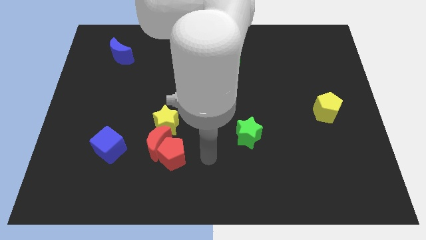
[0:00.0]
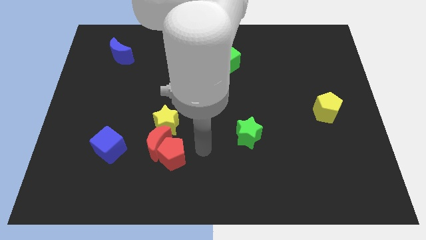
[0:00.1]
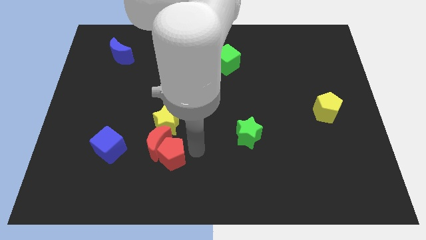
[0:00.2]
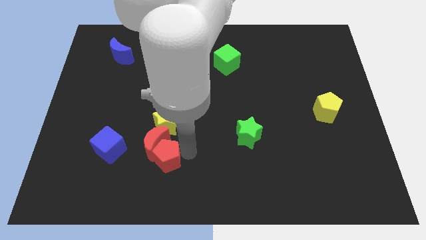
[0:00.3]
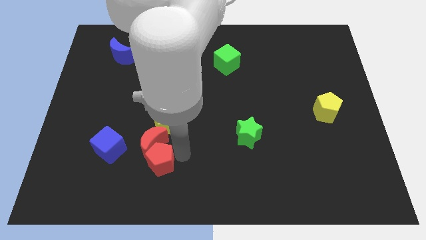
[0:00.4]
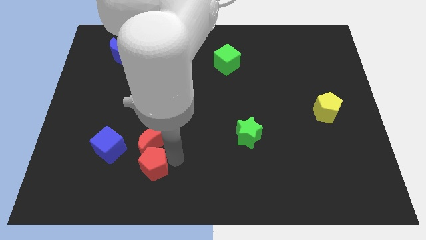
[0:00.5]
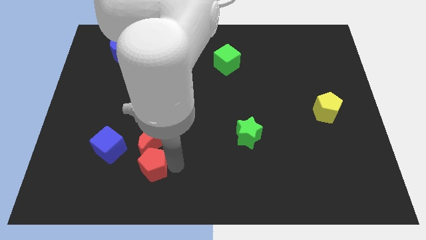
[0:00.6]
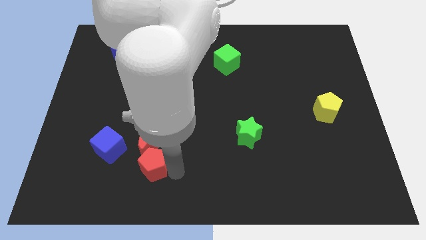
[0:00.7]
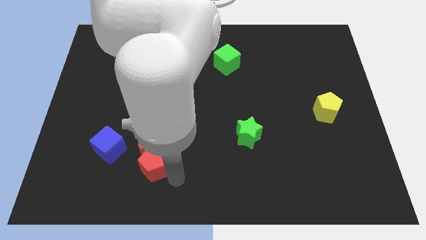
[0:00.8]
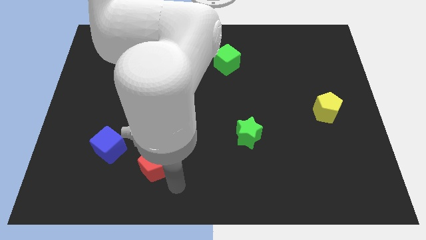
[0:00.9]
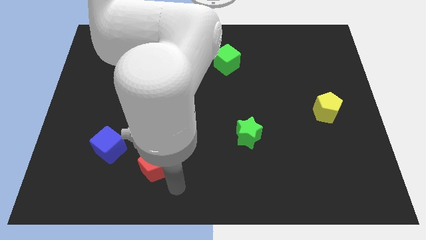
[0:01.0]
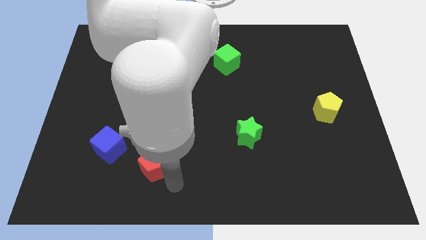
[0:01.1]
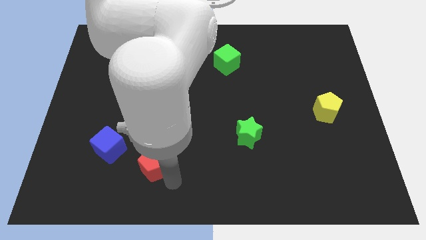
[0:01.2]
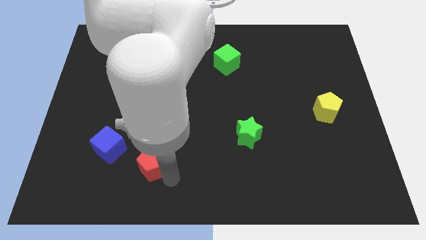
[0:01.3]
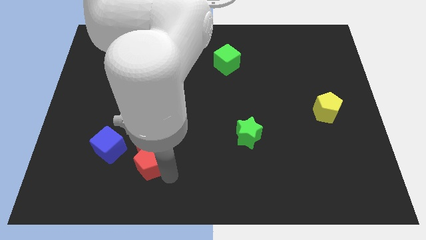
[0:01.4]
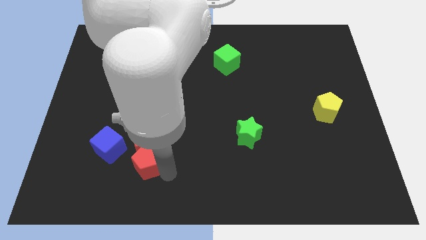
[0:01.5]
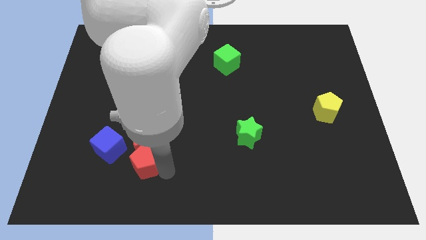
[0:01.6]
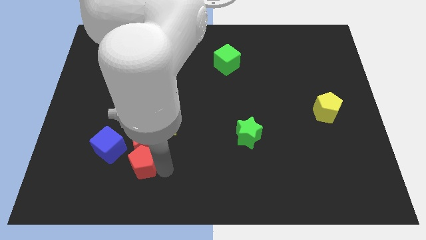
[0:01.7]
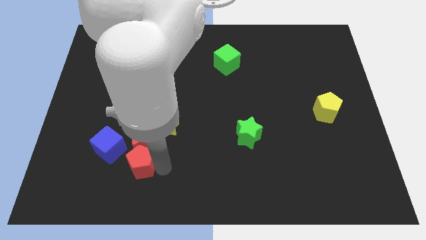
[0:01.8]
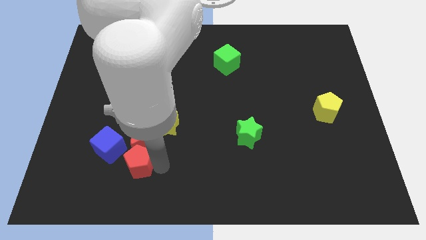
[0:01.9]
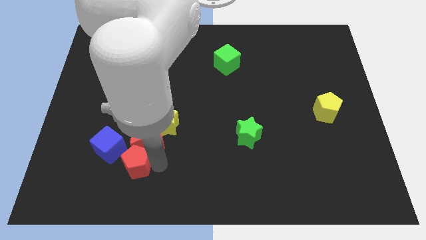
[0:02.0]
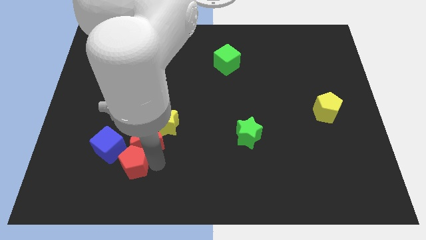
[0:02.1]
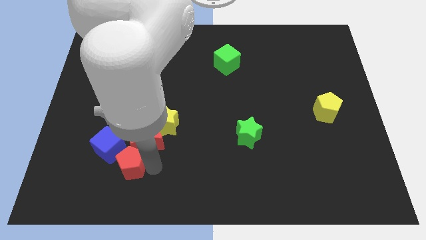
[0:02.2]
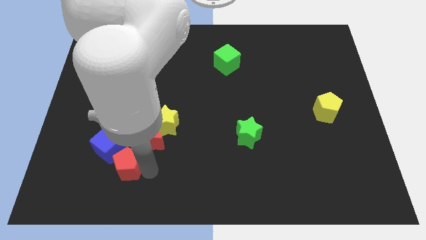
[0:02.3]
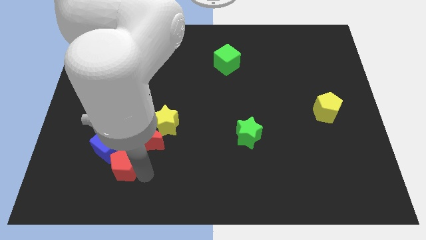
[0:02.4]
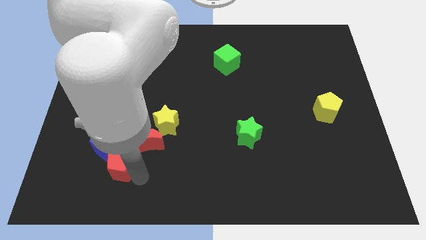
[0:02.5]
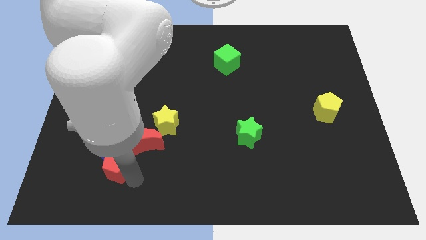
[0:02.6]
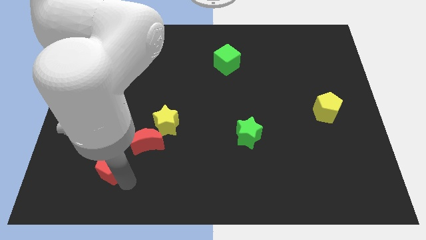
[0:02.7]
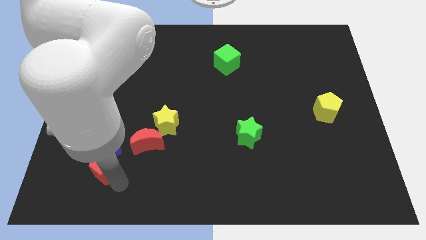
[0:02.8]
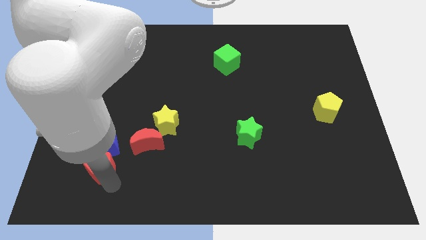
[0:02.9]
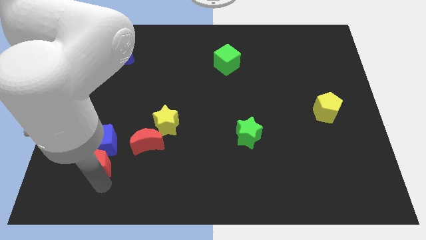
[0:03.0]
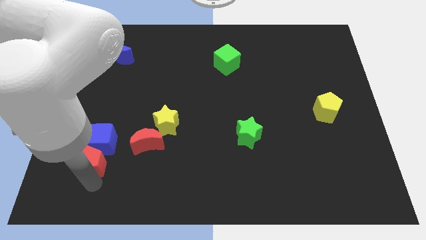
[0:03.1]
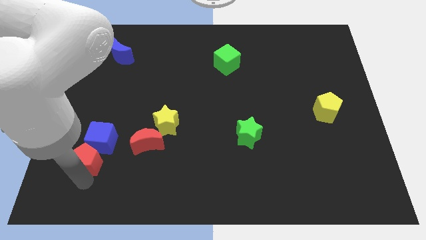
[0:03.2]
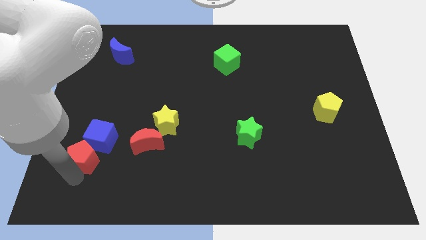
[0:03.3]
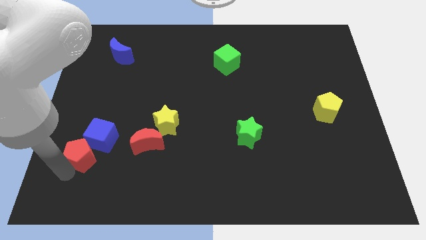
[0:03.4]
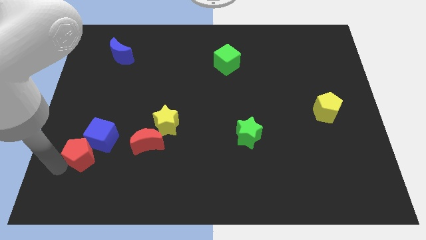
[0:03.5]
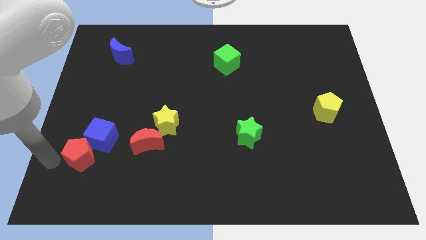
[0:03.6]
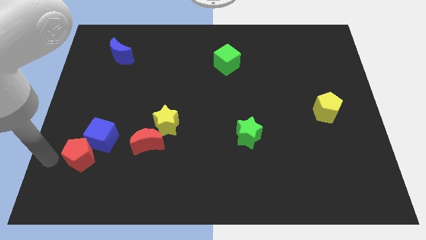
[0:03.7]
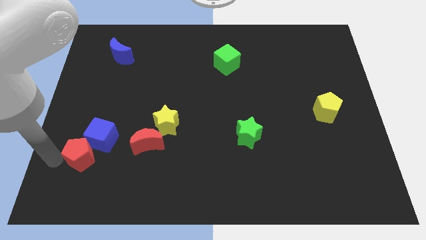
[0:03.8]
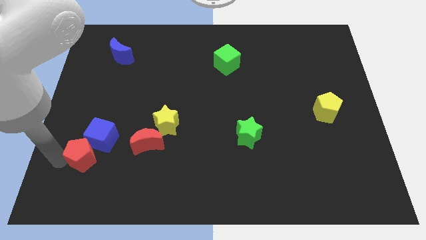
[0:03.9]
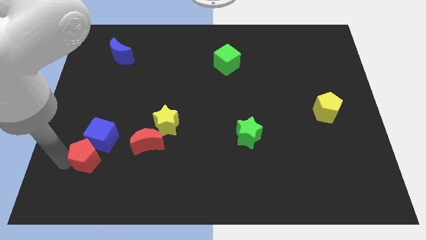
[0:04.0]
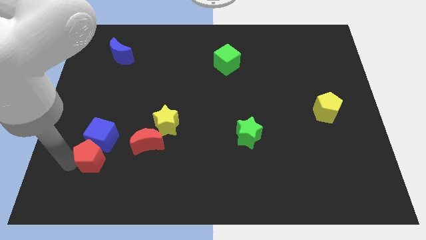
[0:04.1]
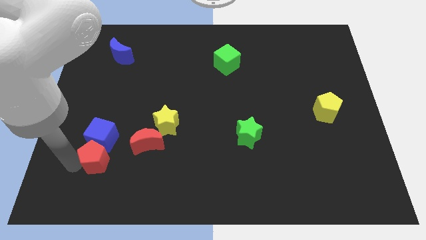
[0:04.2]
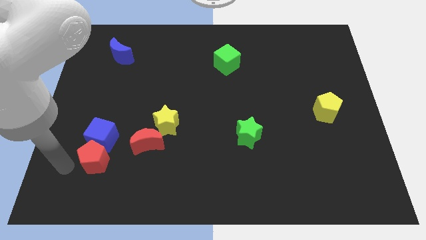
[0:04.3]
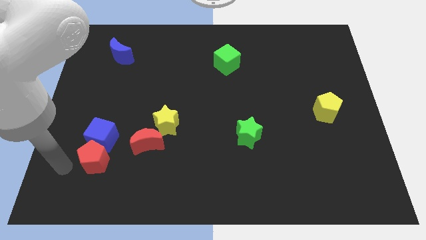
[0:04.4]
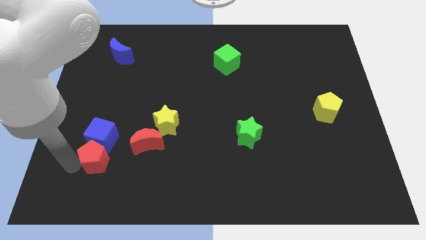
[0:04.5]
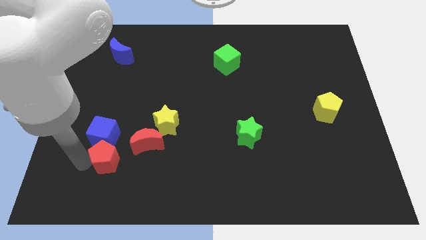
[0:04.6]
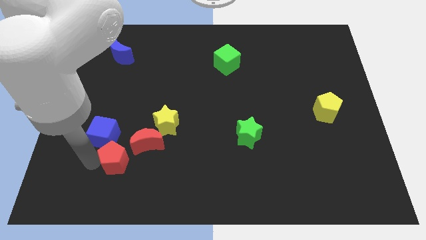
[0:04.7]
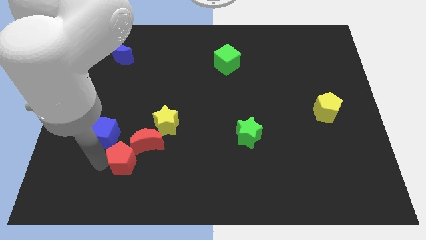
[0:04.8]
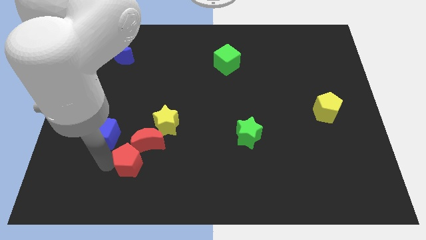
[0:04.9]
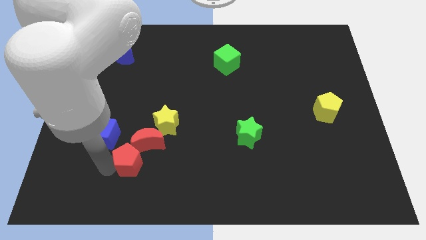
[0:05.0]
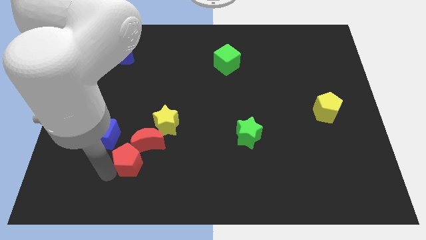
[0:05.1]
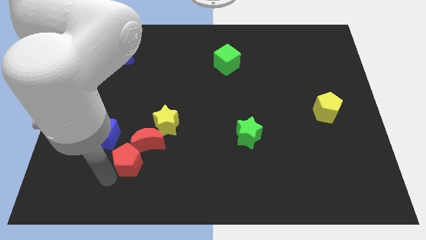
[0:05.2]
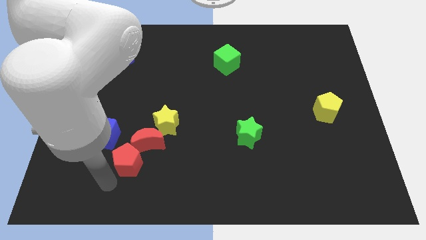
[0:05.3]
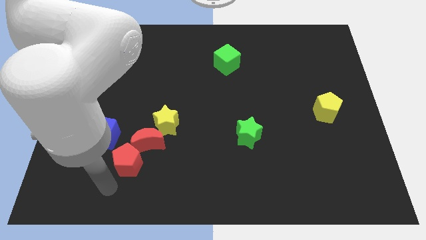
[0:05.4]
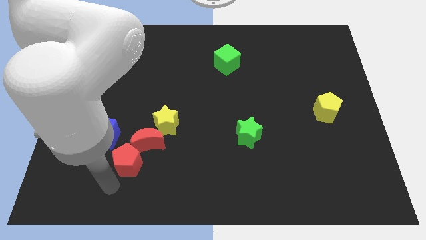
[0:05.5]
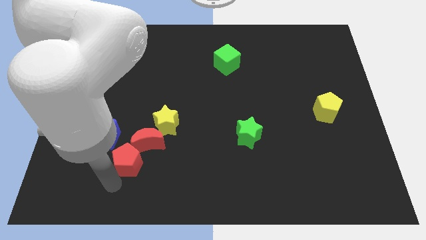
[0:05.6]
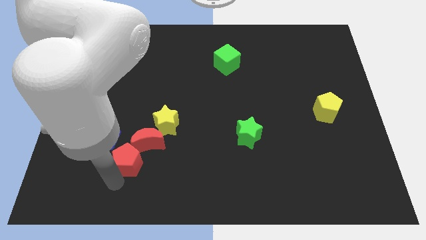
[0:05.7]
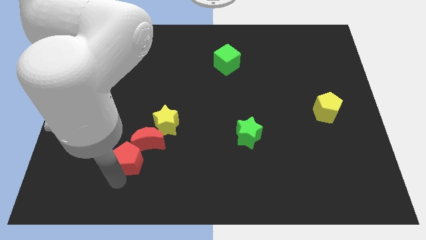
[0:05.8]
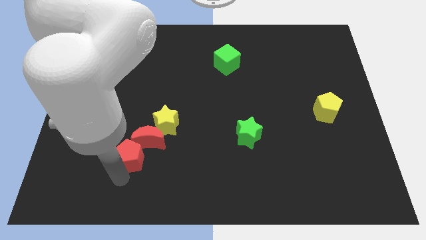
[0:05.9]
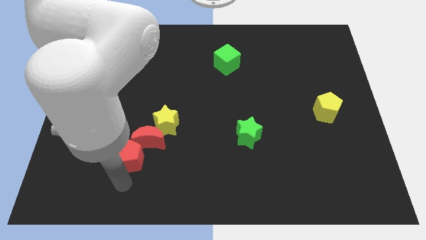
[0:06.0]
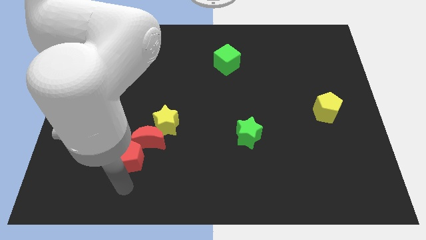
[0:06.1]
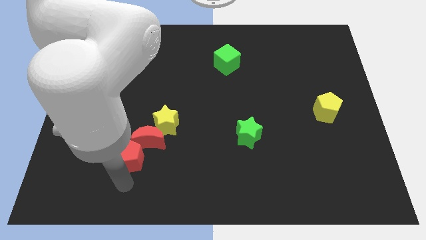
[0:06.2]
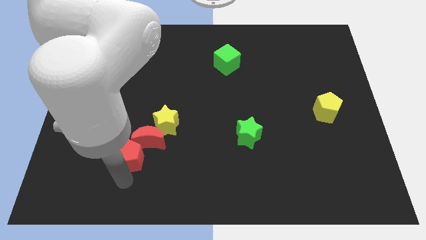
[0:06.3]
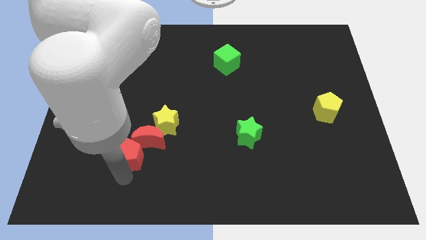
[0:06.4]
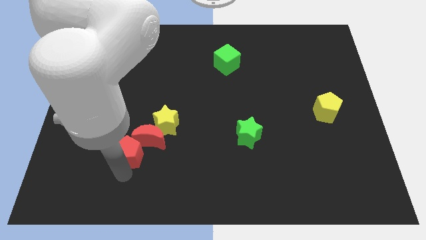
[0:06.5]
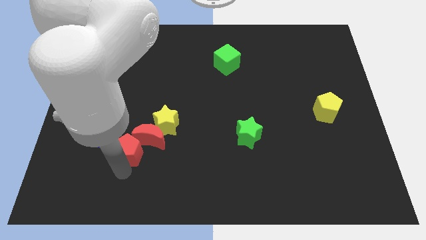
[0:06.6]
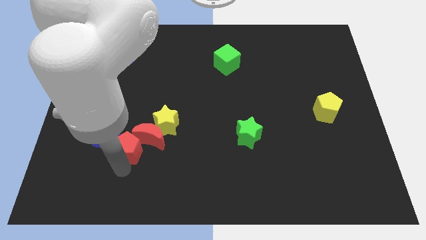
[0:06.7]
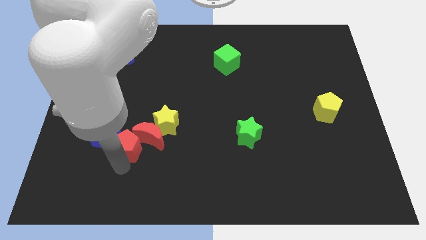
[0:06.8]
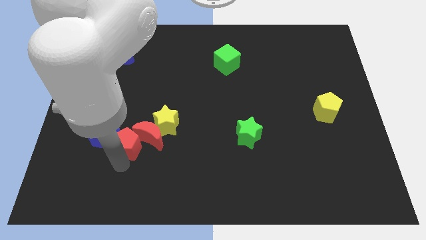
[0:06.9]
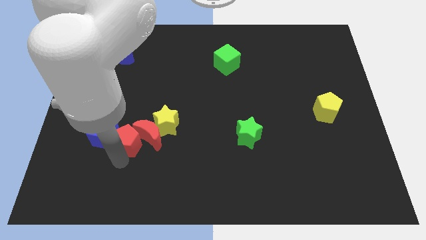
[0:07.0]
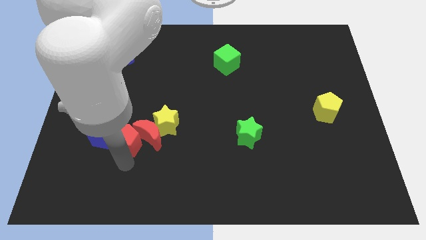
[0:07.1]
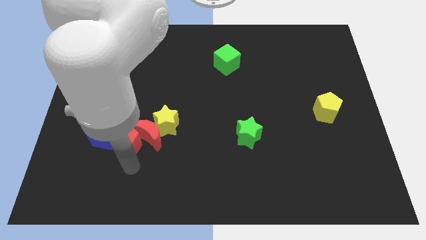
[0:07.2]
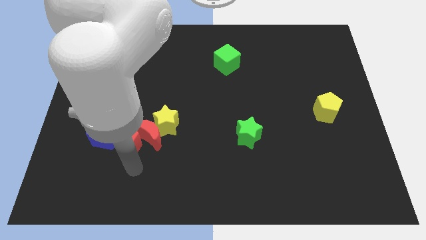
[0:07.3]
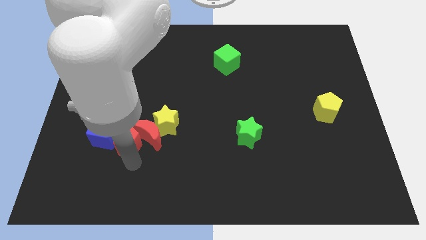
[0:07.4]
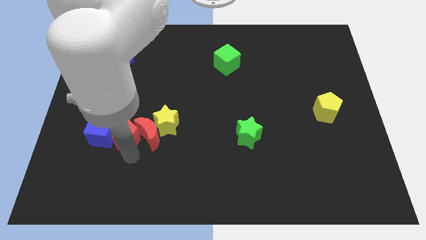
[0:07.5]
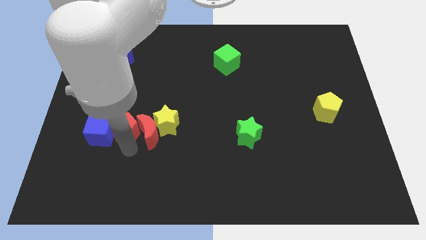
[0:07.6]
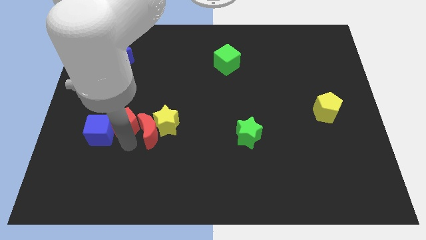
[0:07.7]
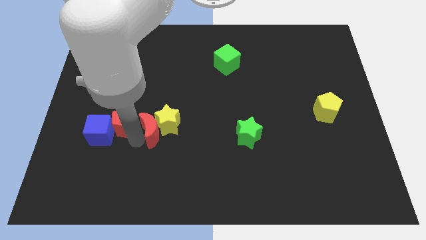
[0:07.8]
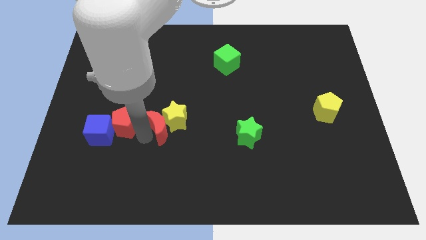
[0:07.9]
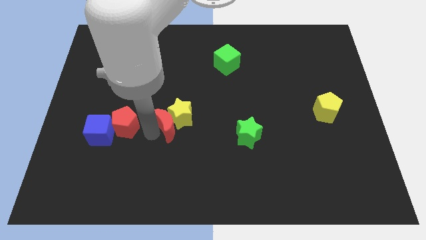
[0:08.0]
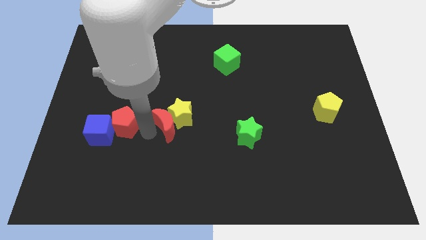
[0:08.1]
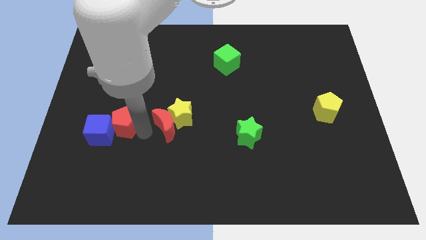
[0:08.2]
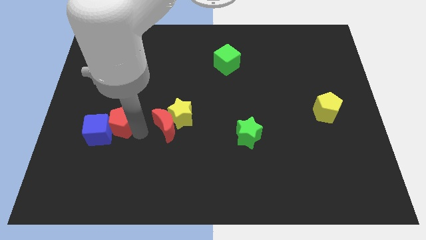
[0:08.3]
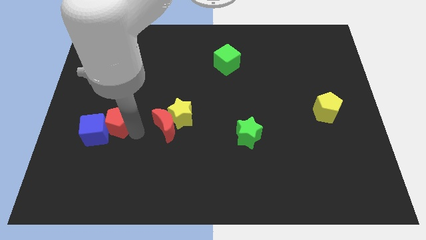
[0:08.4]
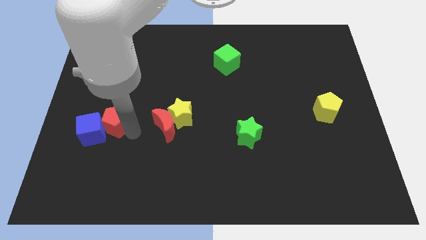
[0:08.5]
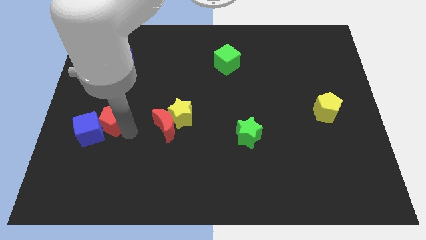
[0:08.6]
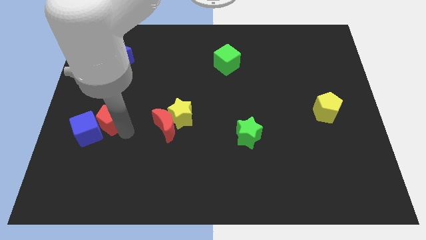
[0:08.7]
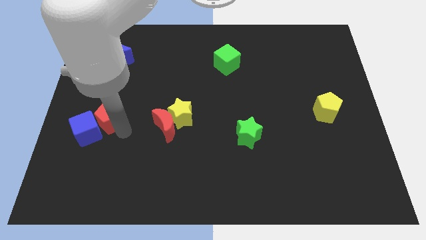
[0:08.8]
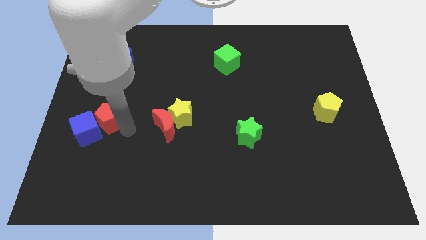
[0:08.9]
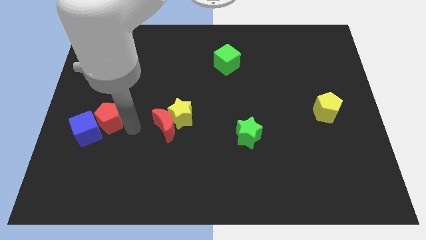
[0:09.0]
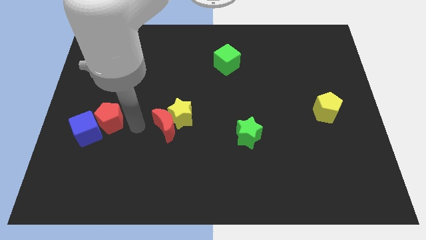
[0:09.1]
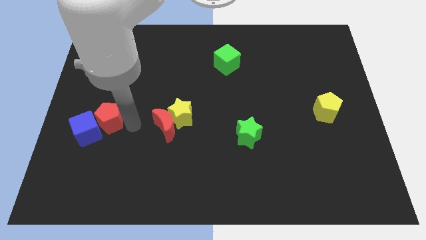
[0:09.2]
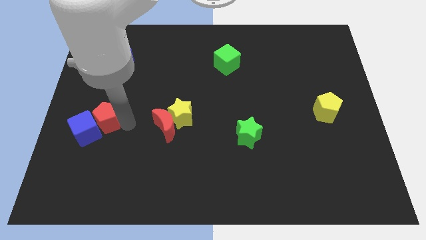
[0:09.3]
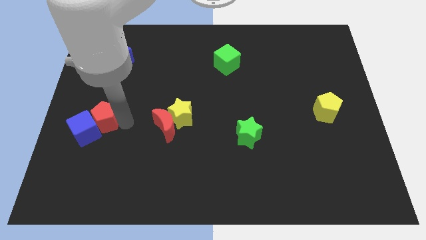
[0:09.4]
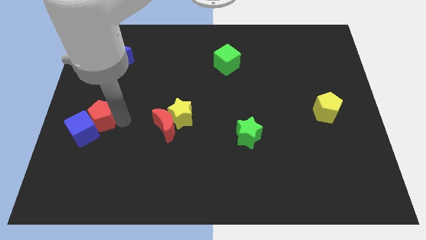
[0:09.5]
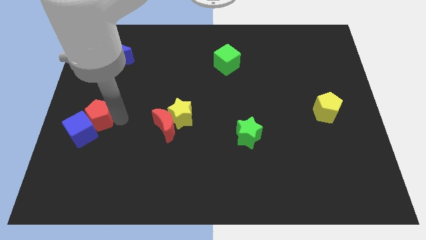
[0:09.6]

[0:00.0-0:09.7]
move the red pentagon to the left side
